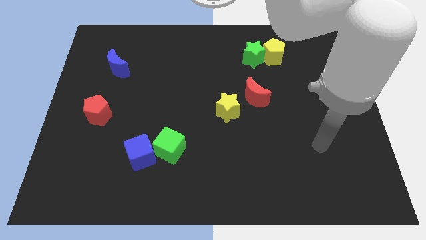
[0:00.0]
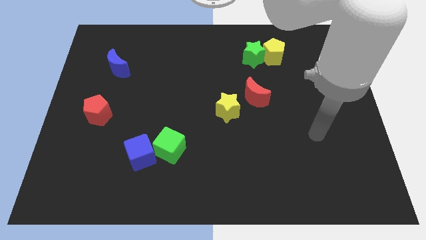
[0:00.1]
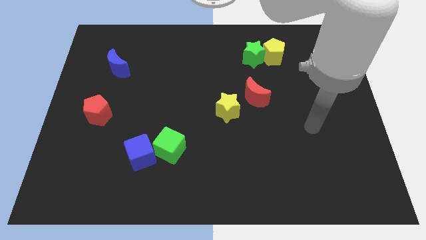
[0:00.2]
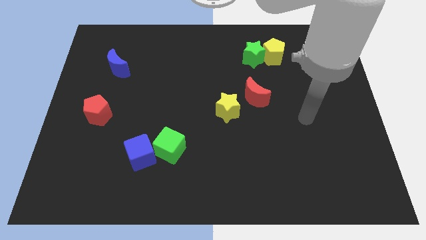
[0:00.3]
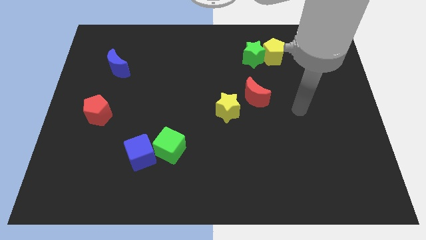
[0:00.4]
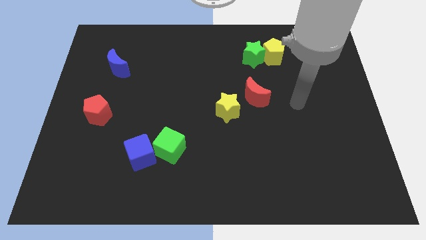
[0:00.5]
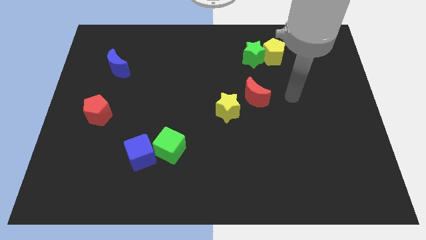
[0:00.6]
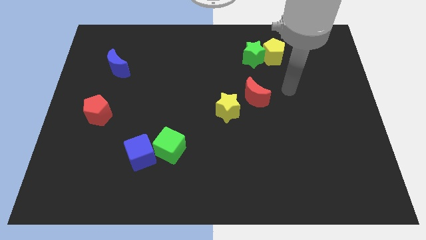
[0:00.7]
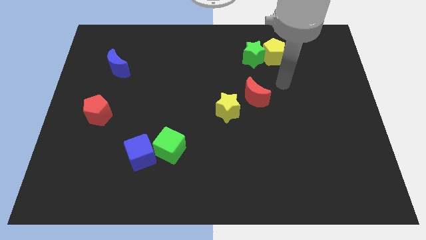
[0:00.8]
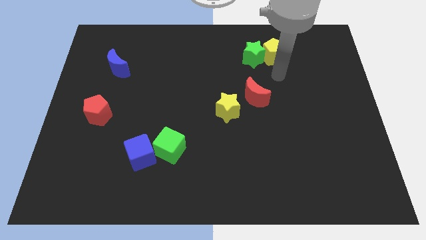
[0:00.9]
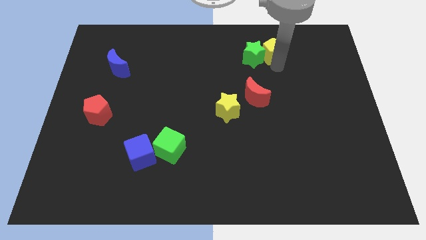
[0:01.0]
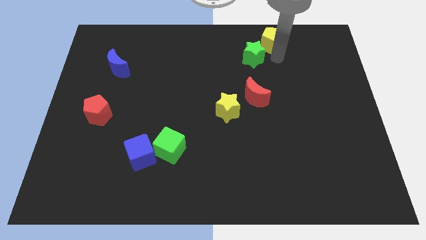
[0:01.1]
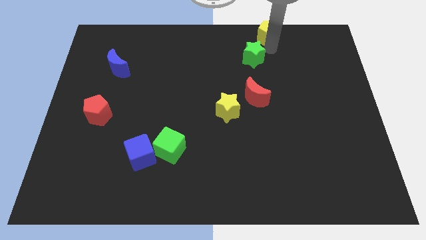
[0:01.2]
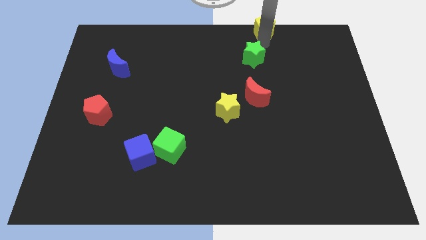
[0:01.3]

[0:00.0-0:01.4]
pull the green star apart from the yellow pentagon

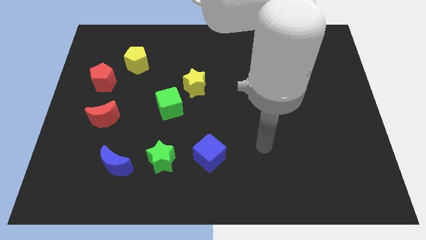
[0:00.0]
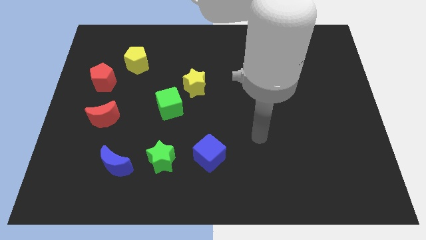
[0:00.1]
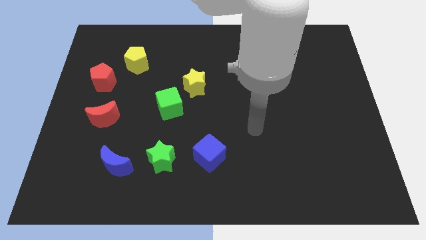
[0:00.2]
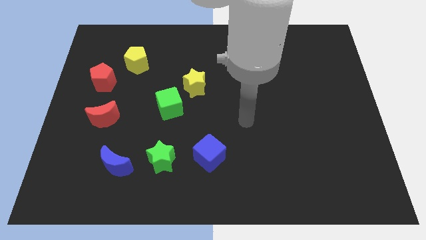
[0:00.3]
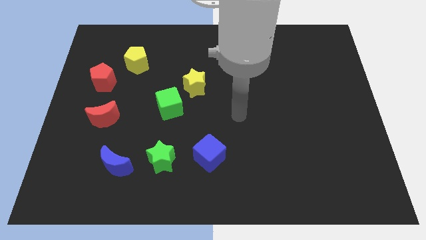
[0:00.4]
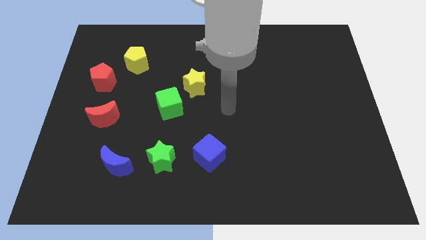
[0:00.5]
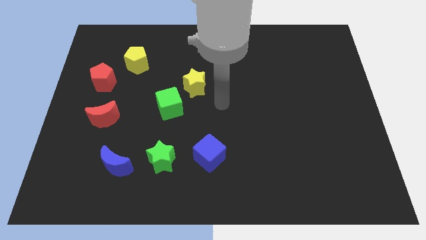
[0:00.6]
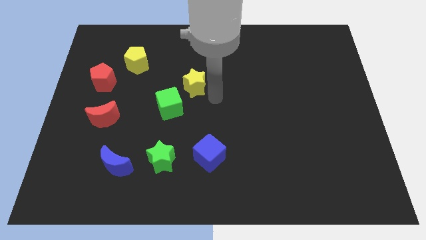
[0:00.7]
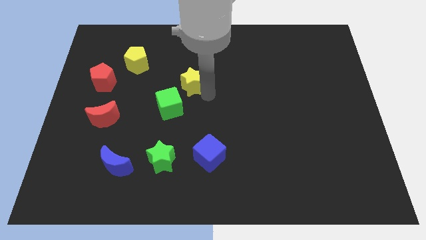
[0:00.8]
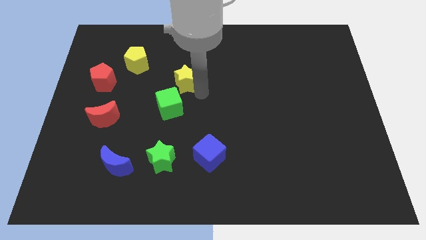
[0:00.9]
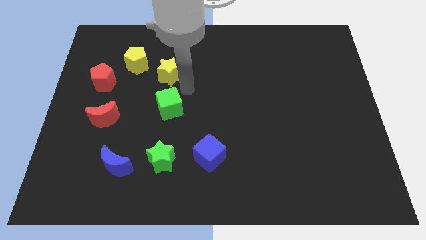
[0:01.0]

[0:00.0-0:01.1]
pull the green cube apart from the yellow star

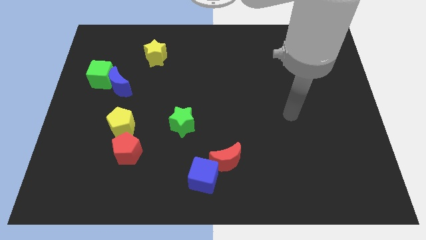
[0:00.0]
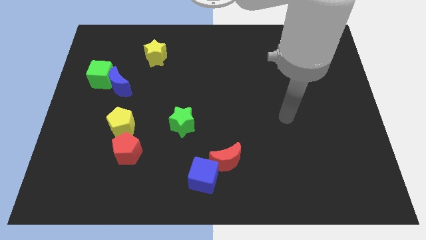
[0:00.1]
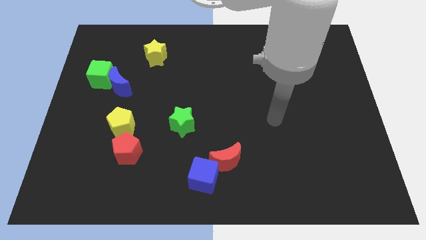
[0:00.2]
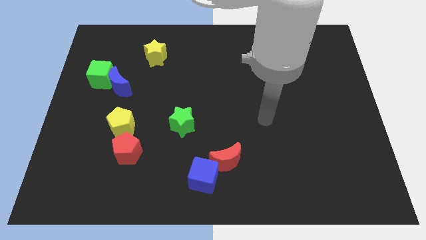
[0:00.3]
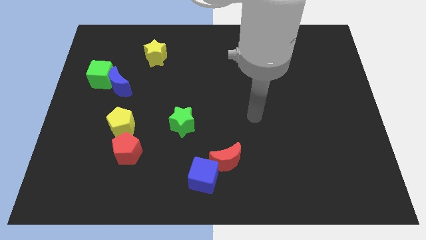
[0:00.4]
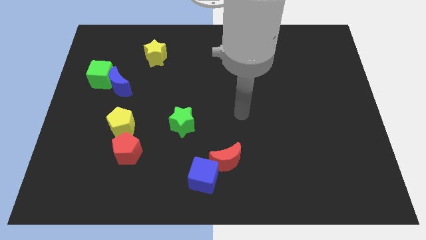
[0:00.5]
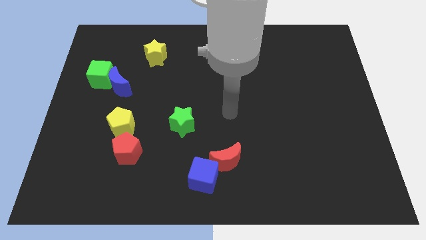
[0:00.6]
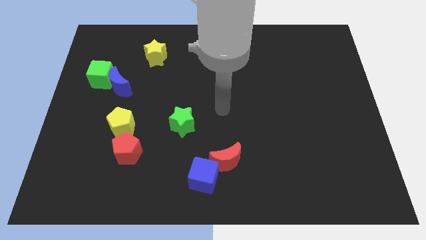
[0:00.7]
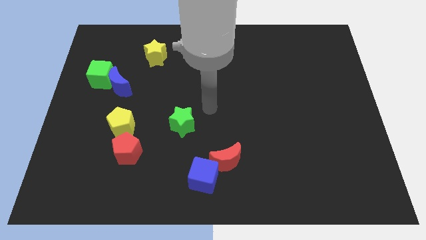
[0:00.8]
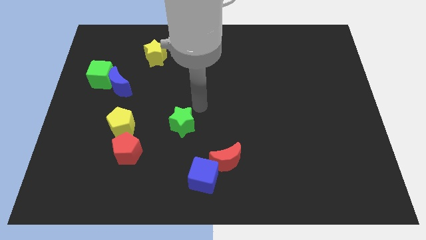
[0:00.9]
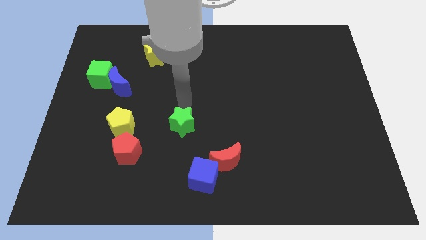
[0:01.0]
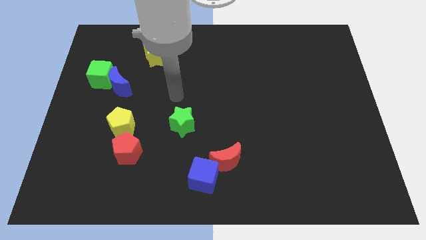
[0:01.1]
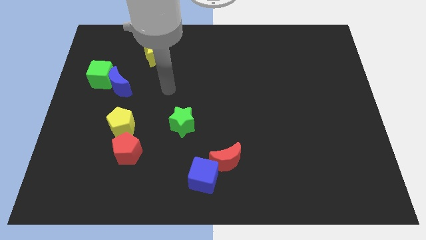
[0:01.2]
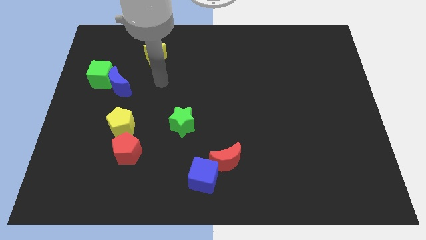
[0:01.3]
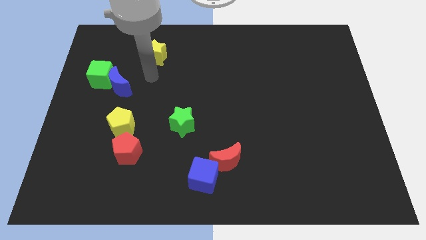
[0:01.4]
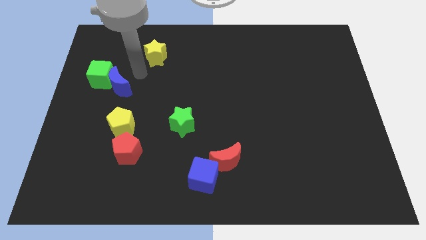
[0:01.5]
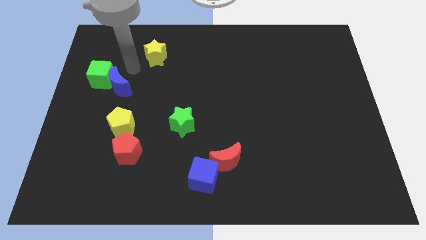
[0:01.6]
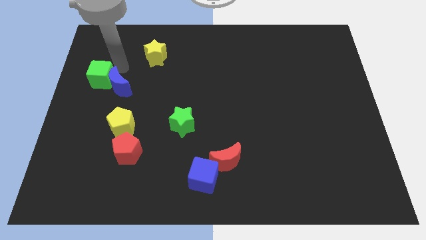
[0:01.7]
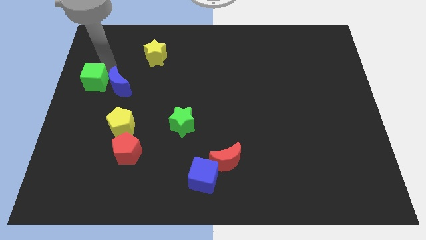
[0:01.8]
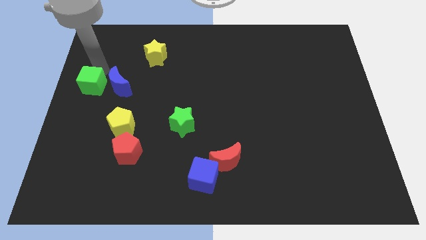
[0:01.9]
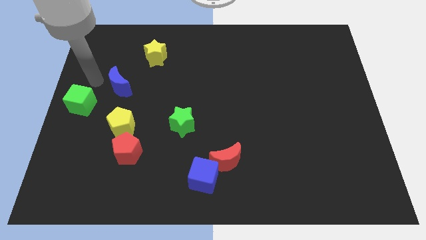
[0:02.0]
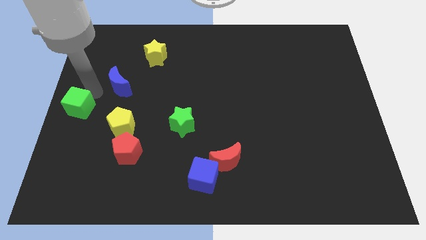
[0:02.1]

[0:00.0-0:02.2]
move the blue moon away from the green cube

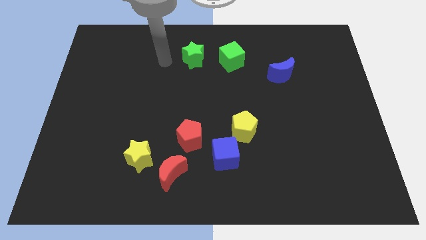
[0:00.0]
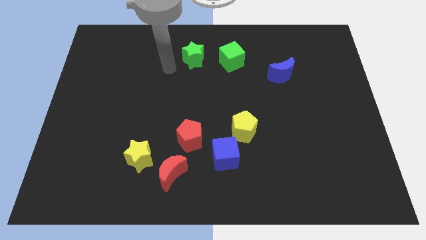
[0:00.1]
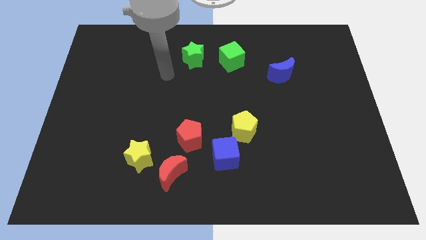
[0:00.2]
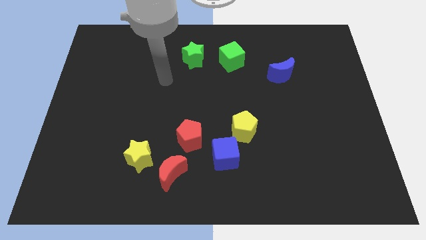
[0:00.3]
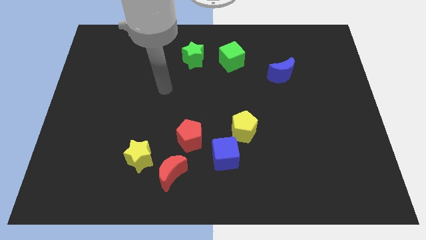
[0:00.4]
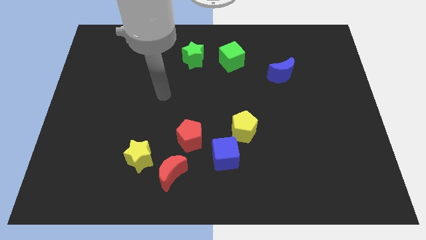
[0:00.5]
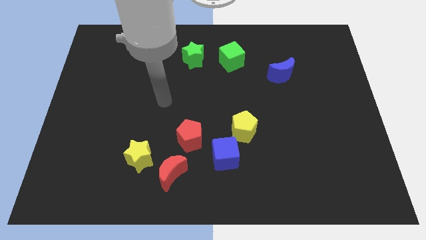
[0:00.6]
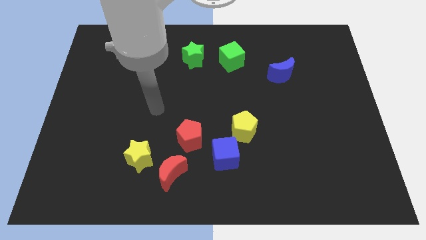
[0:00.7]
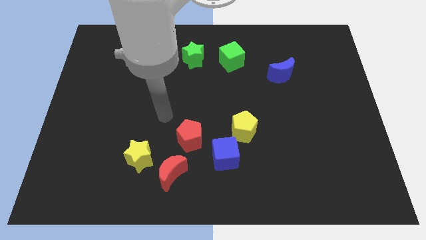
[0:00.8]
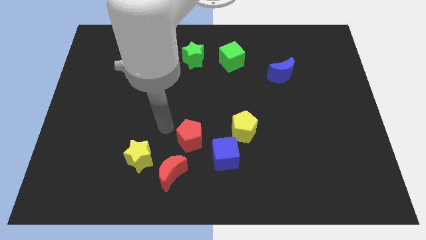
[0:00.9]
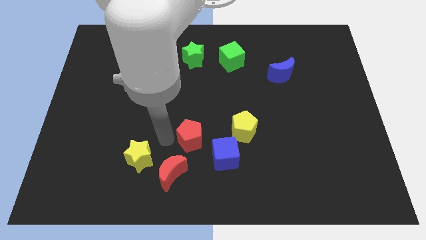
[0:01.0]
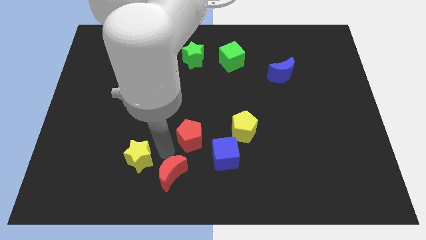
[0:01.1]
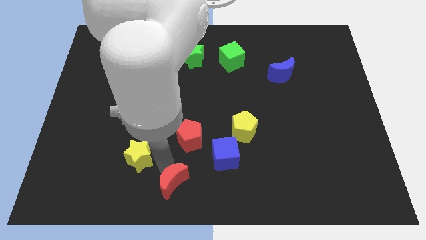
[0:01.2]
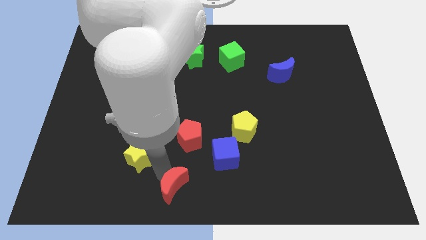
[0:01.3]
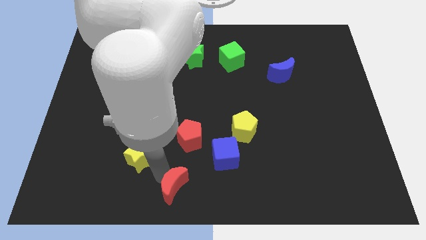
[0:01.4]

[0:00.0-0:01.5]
separate the yellow star from the red moon

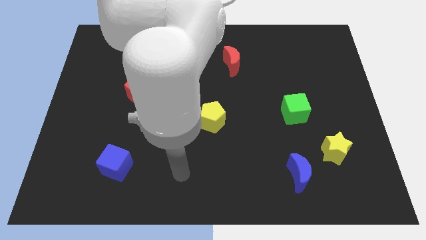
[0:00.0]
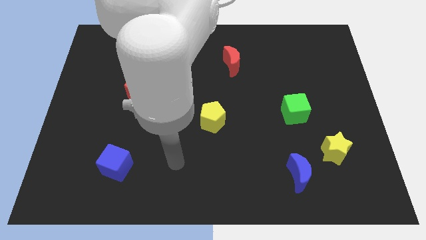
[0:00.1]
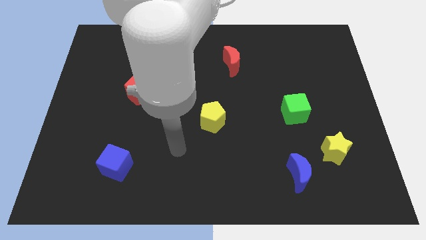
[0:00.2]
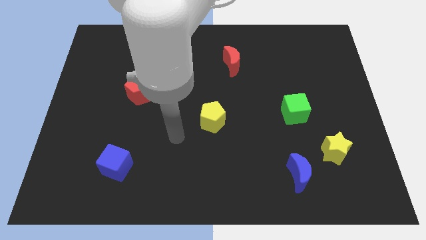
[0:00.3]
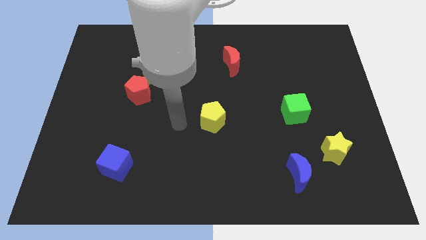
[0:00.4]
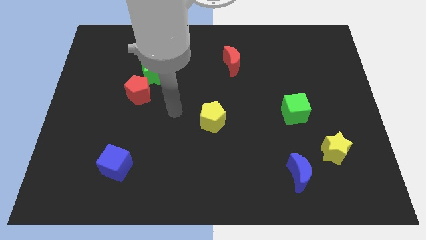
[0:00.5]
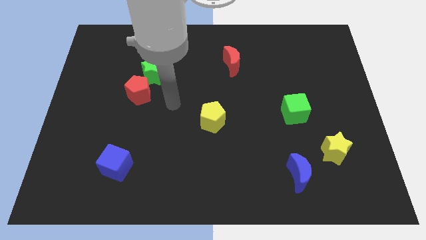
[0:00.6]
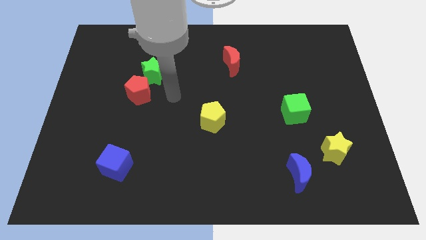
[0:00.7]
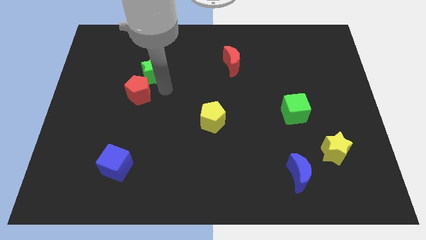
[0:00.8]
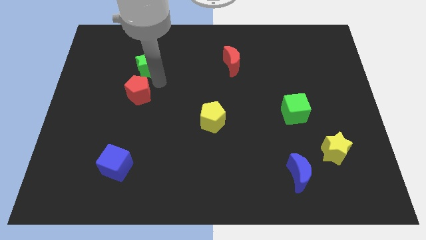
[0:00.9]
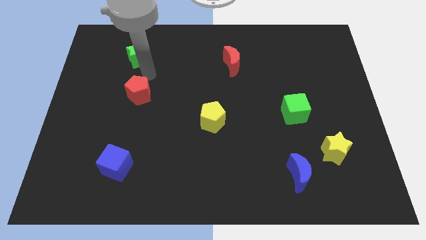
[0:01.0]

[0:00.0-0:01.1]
move the red pentagon away from the green star

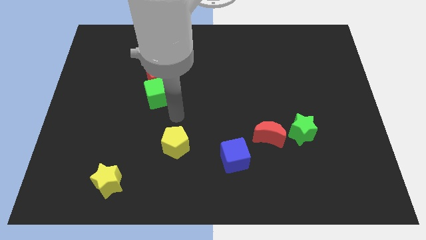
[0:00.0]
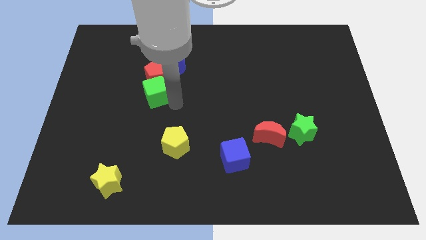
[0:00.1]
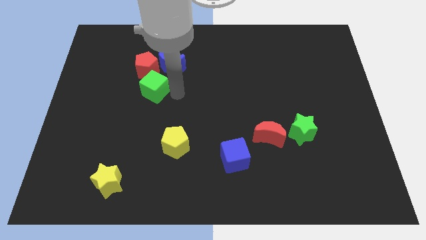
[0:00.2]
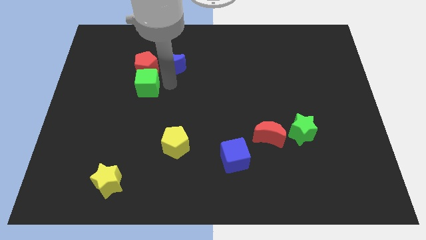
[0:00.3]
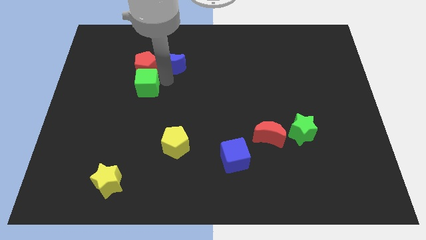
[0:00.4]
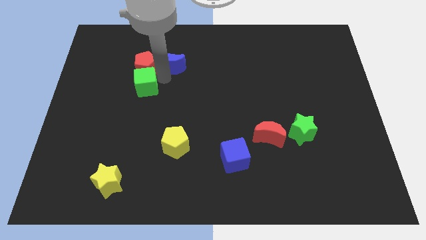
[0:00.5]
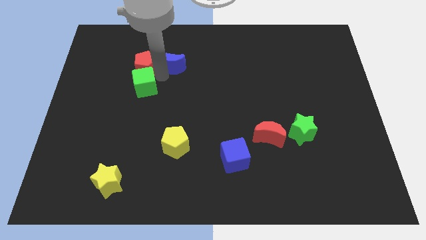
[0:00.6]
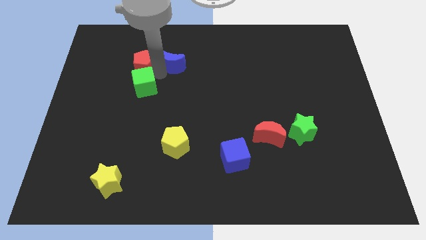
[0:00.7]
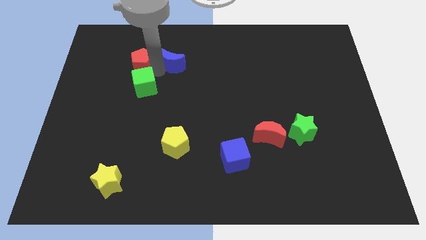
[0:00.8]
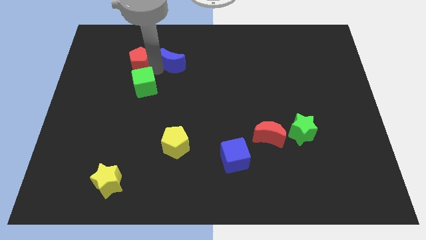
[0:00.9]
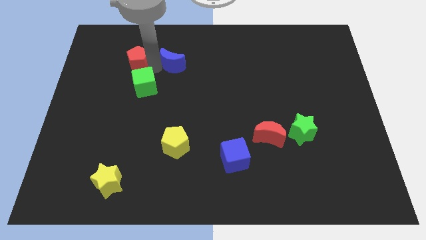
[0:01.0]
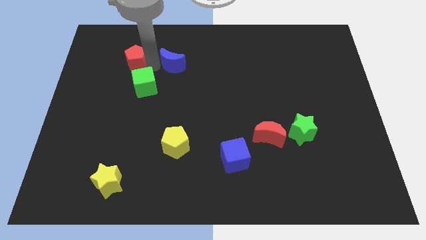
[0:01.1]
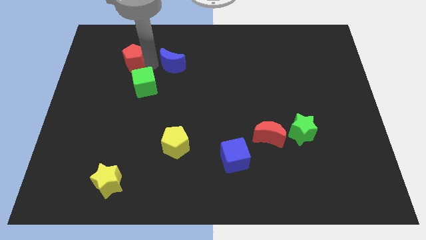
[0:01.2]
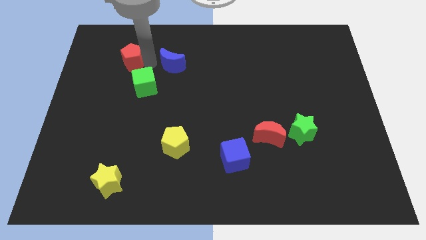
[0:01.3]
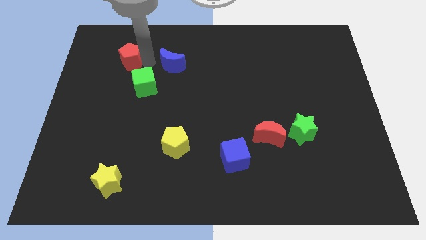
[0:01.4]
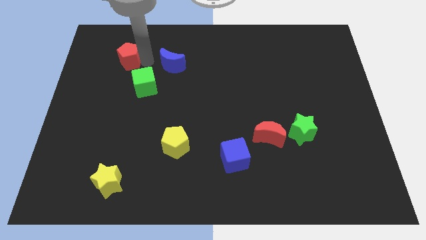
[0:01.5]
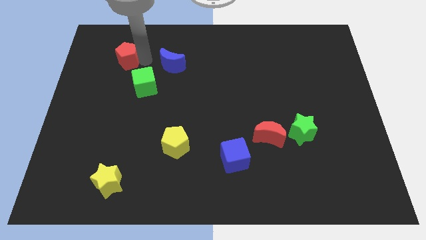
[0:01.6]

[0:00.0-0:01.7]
separate the red pentagon from the blue moon and green cube

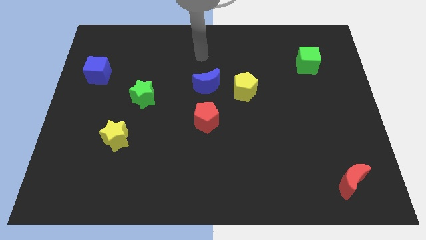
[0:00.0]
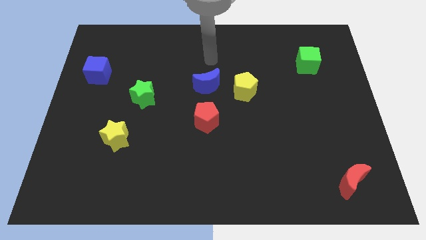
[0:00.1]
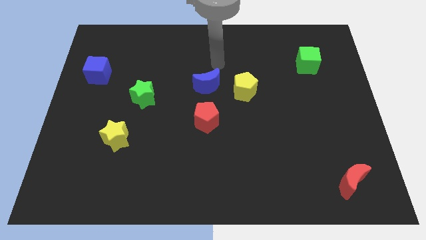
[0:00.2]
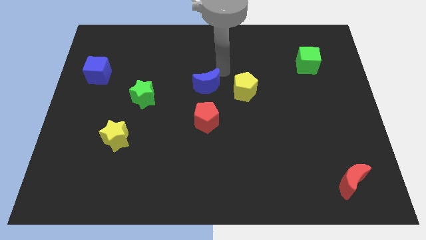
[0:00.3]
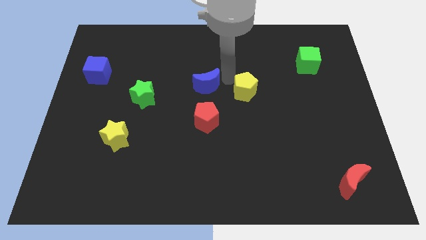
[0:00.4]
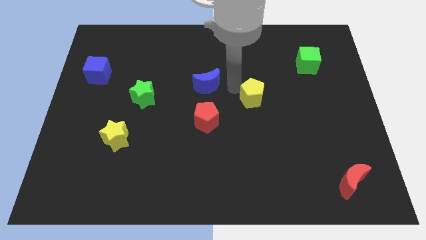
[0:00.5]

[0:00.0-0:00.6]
pull the blue moon apart from the yellow pentagon
